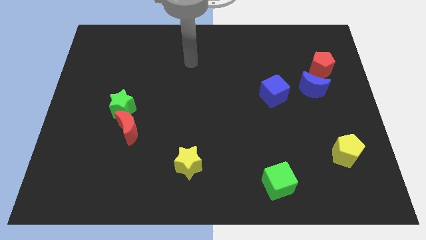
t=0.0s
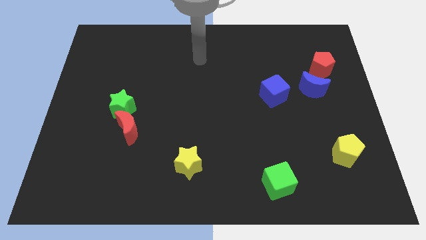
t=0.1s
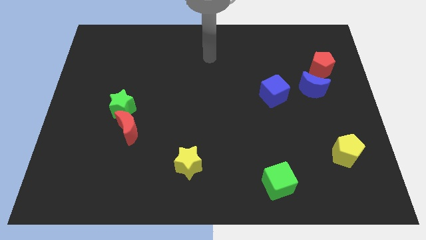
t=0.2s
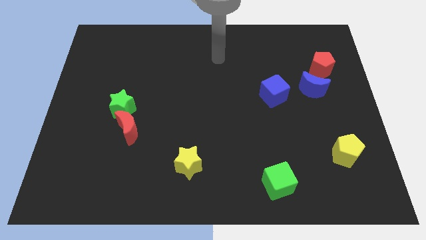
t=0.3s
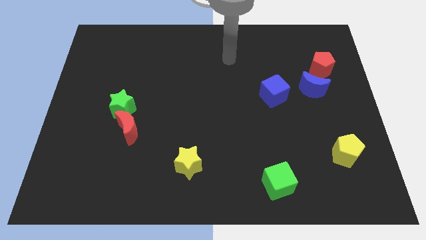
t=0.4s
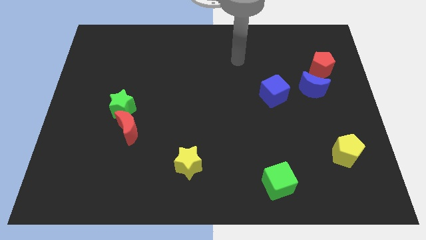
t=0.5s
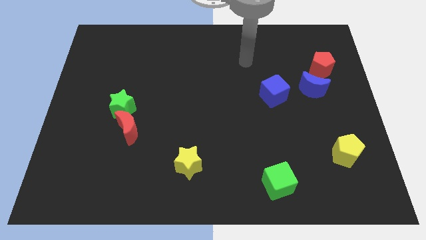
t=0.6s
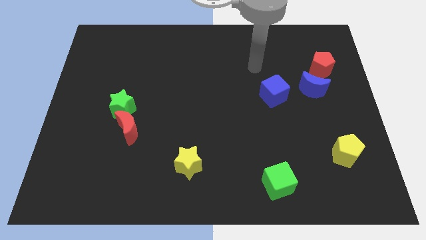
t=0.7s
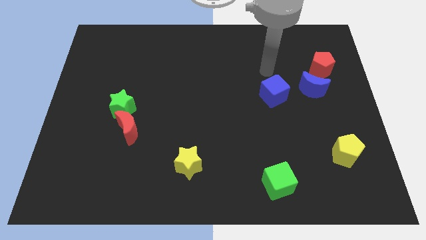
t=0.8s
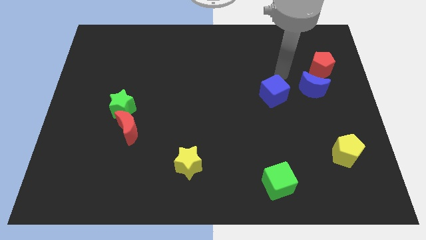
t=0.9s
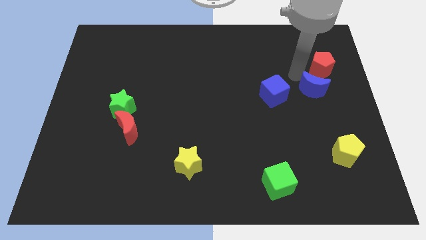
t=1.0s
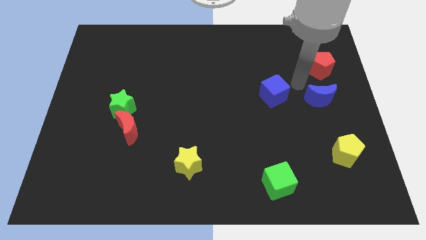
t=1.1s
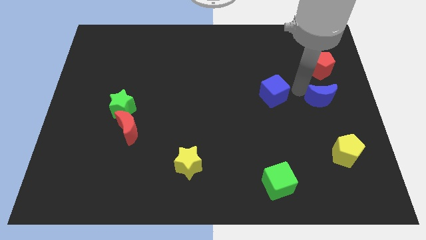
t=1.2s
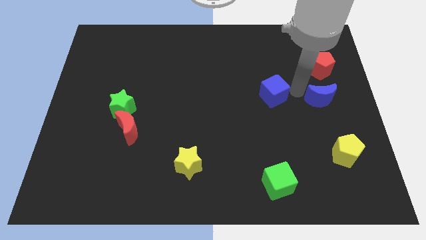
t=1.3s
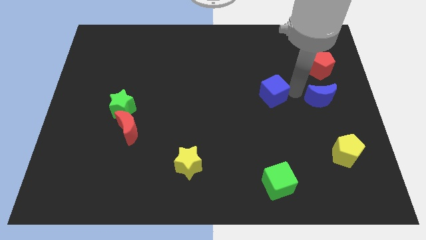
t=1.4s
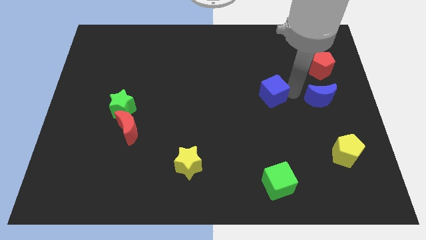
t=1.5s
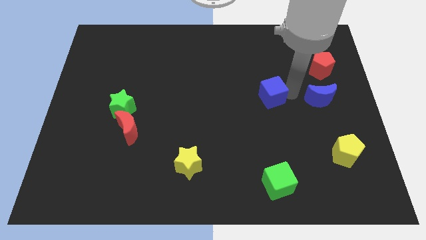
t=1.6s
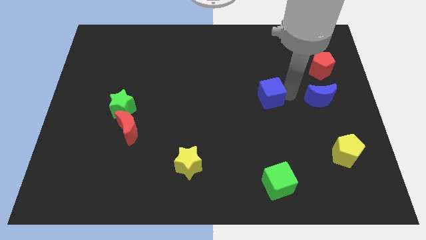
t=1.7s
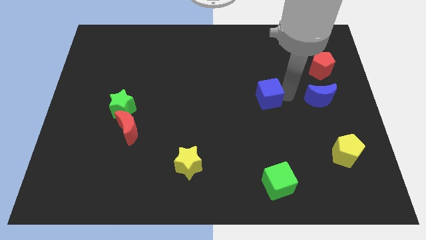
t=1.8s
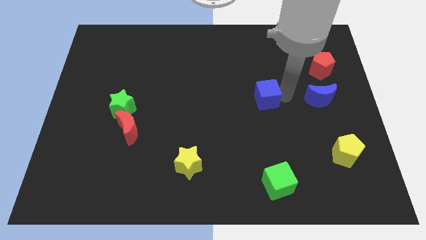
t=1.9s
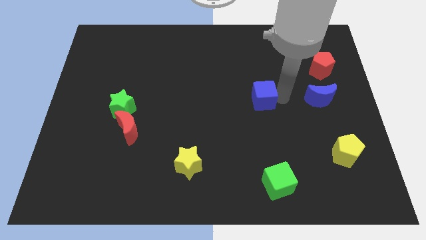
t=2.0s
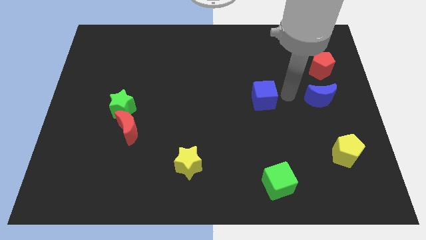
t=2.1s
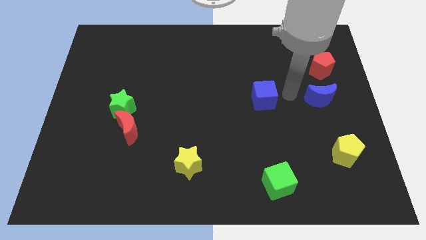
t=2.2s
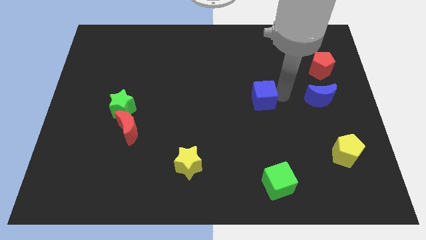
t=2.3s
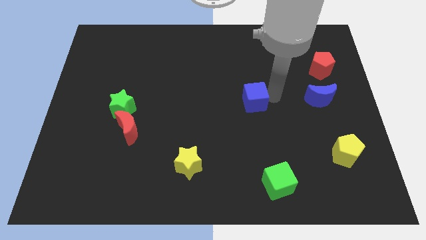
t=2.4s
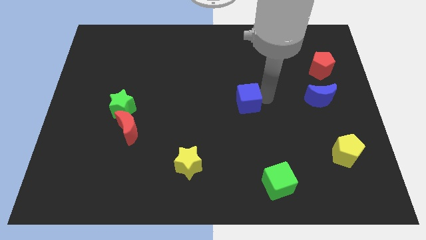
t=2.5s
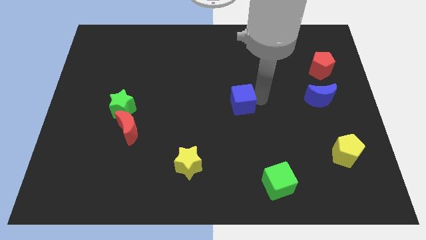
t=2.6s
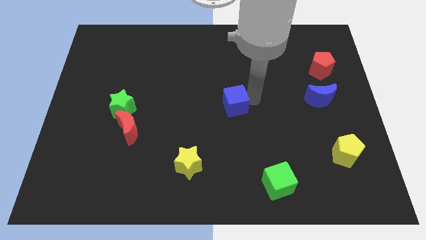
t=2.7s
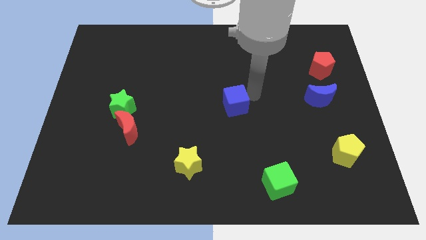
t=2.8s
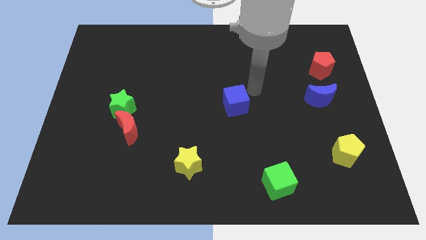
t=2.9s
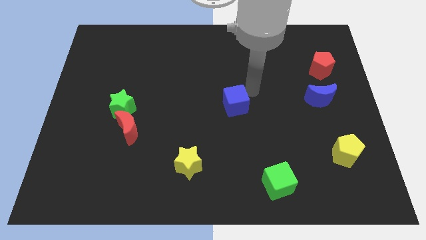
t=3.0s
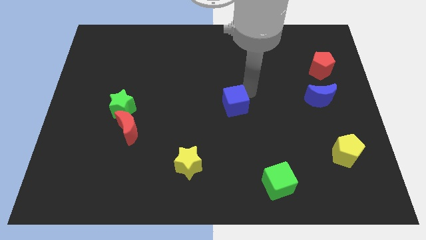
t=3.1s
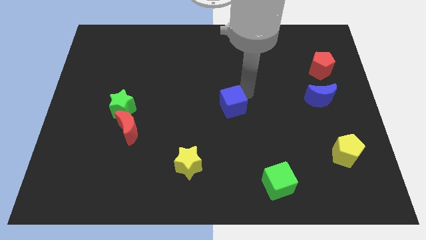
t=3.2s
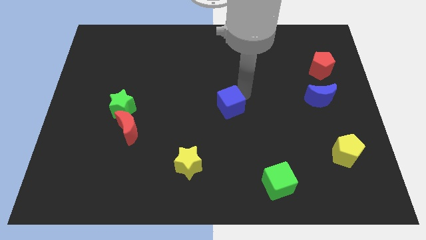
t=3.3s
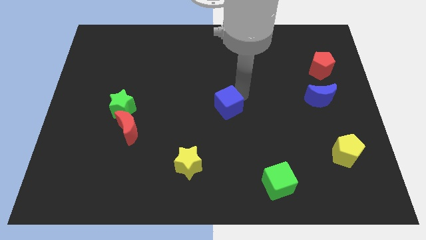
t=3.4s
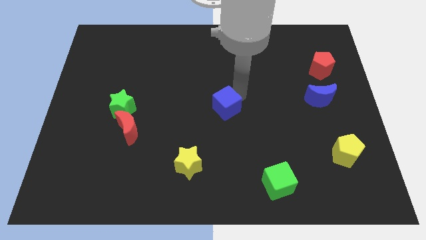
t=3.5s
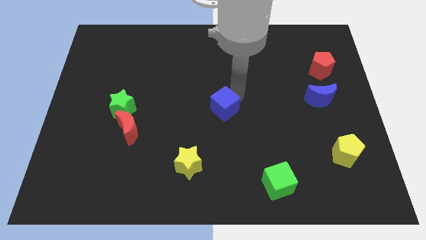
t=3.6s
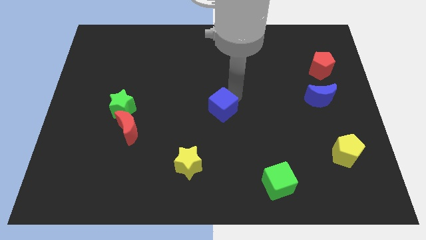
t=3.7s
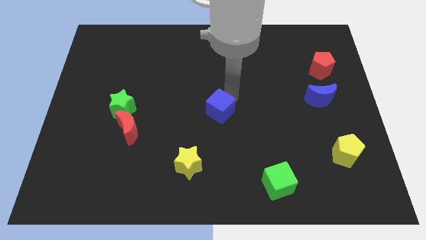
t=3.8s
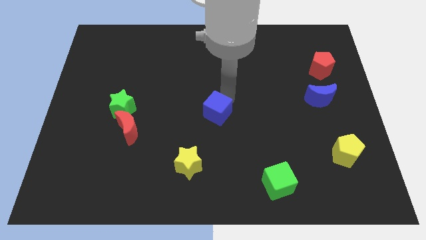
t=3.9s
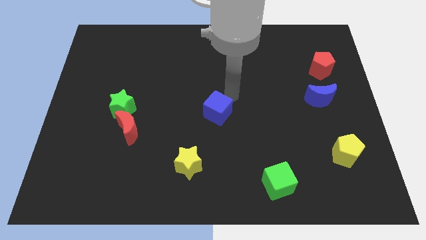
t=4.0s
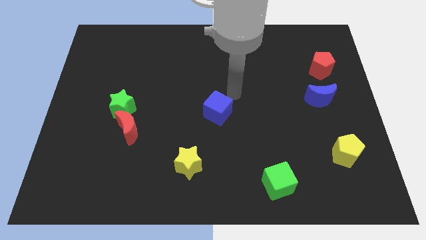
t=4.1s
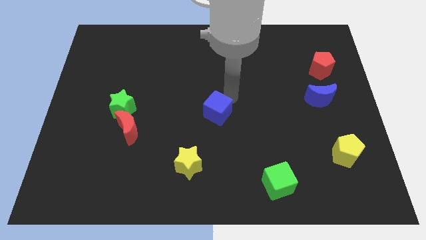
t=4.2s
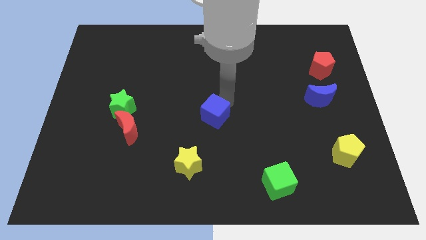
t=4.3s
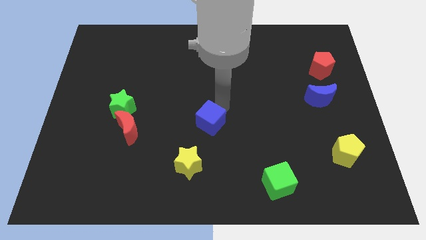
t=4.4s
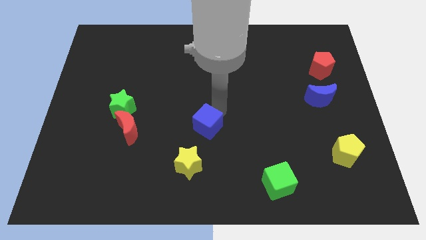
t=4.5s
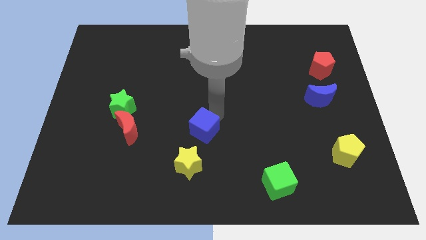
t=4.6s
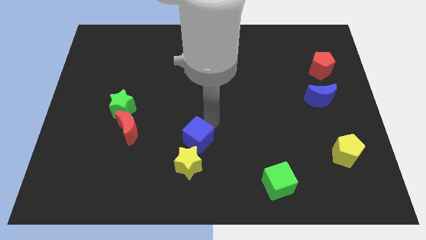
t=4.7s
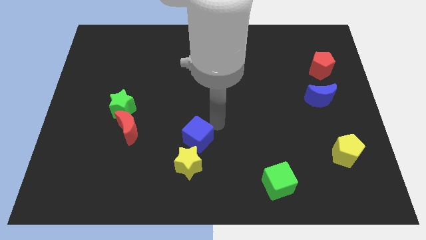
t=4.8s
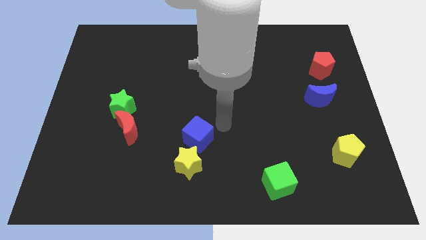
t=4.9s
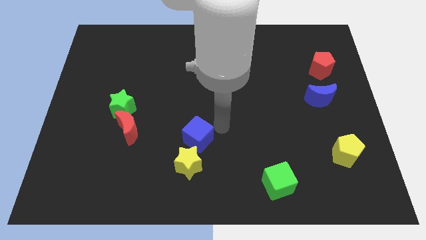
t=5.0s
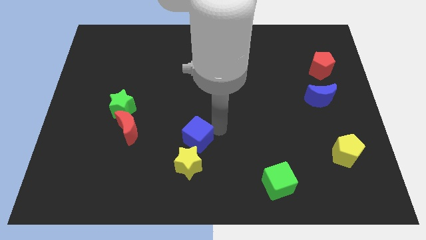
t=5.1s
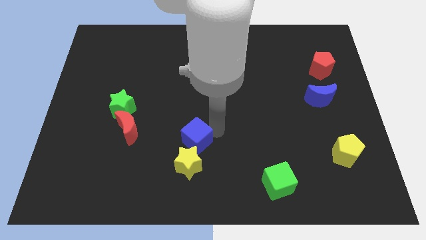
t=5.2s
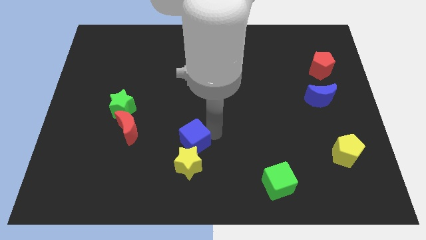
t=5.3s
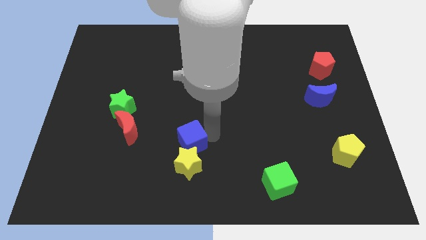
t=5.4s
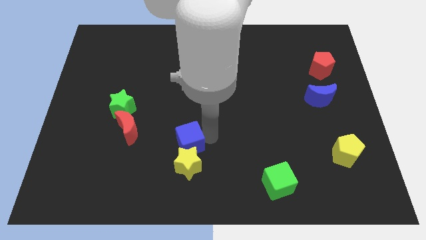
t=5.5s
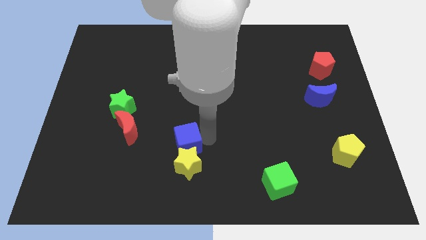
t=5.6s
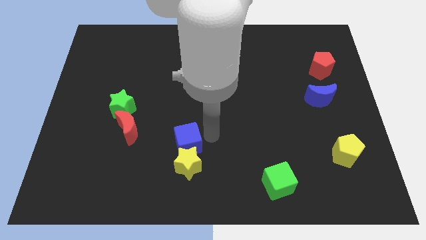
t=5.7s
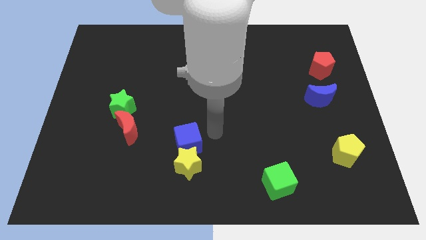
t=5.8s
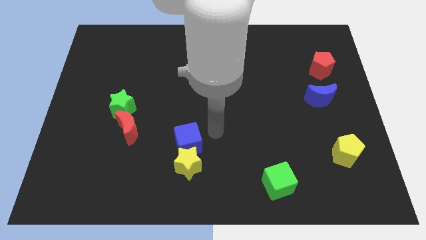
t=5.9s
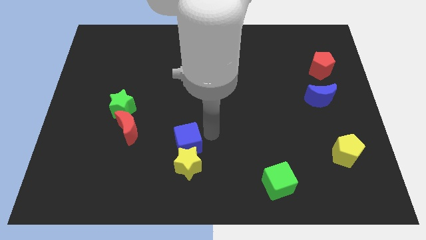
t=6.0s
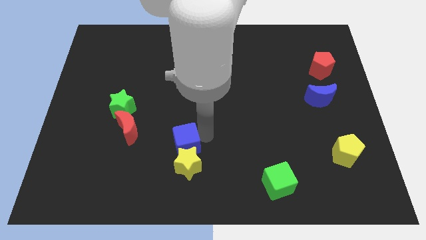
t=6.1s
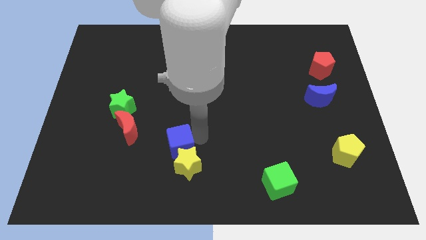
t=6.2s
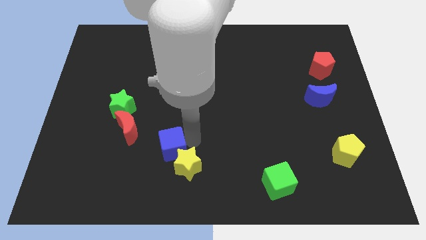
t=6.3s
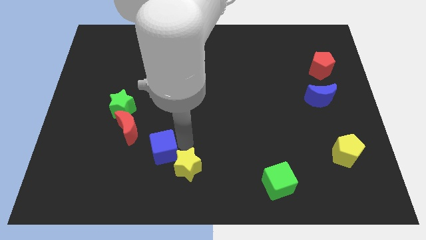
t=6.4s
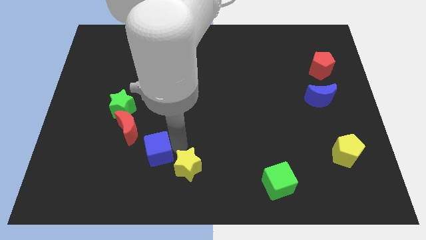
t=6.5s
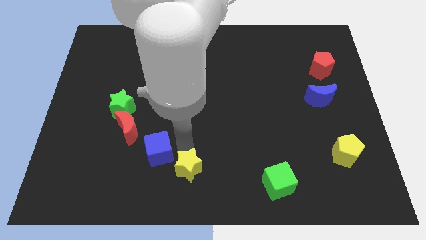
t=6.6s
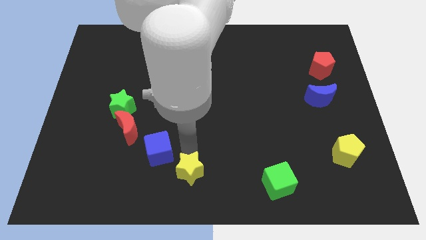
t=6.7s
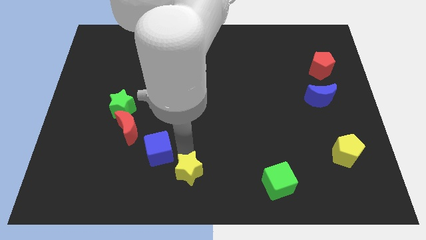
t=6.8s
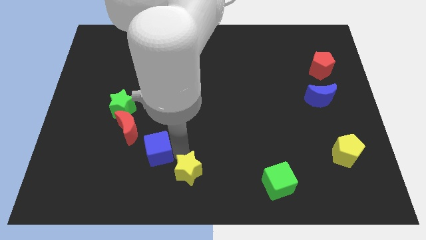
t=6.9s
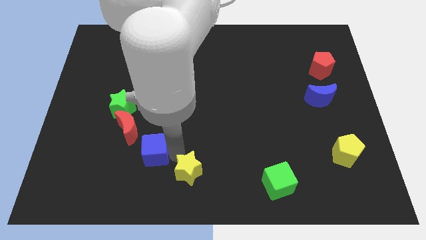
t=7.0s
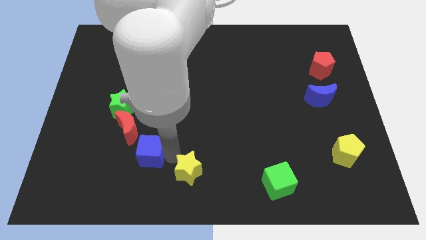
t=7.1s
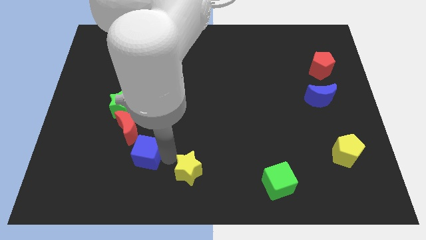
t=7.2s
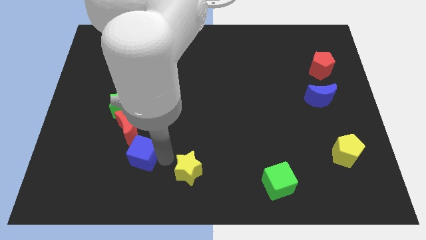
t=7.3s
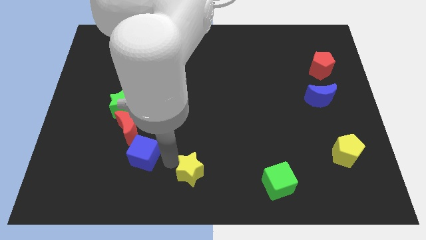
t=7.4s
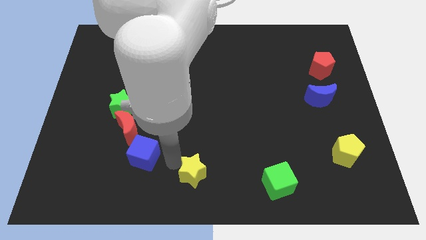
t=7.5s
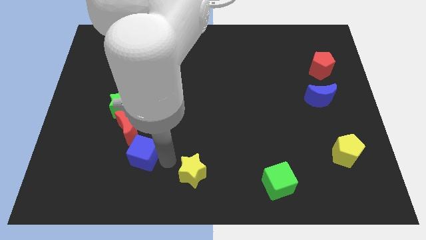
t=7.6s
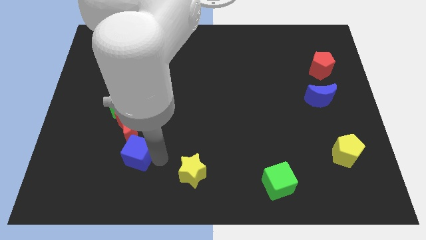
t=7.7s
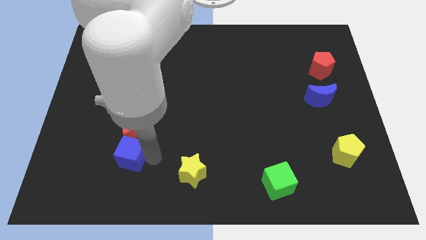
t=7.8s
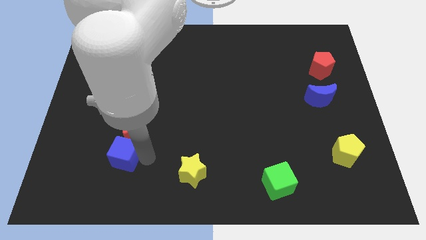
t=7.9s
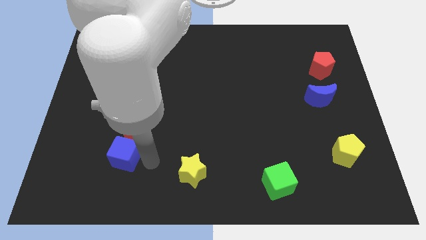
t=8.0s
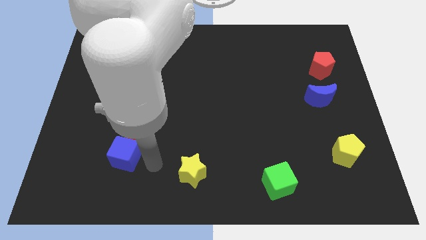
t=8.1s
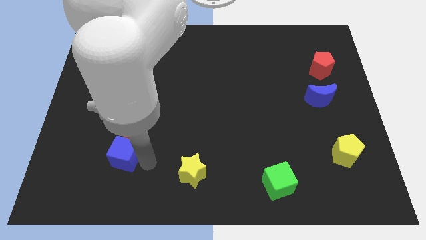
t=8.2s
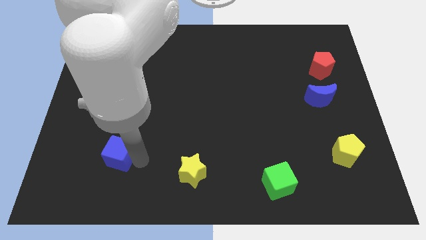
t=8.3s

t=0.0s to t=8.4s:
push the blue cube diagonally down and to the left of the red moon
